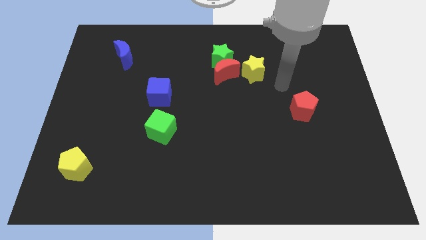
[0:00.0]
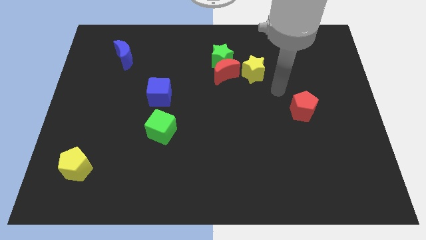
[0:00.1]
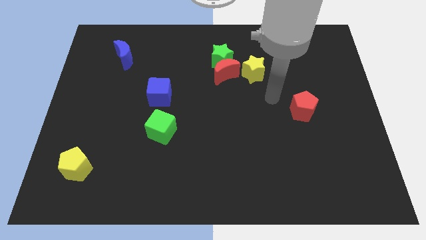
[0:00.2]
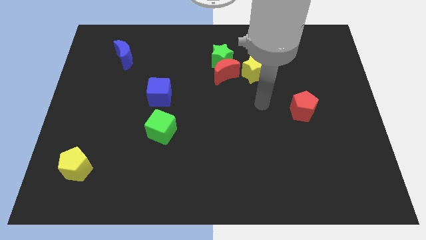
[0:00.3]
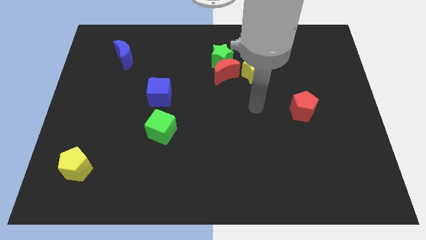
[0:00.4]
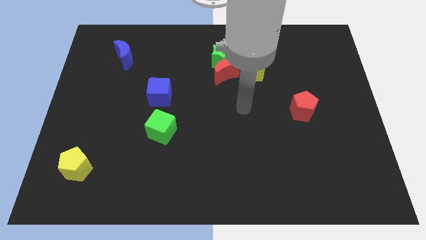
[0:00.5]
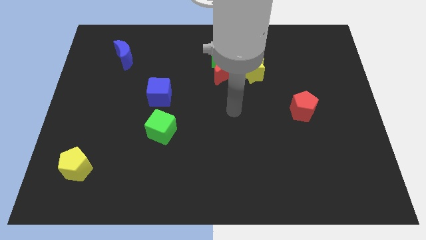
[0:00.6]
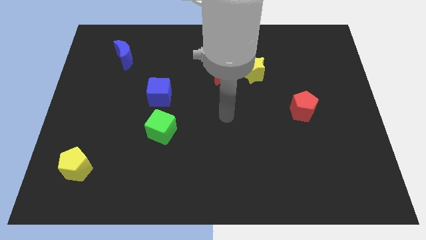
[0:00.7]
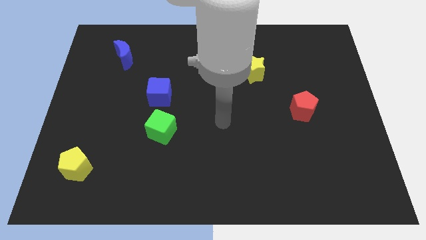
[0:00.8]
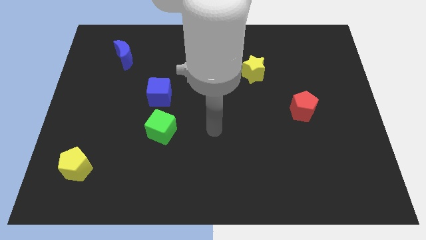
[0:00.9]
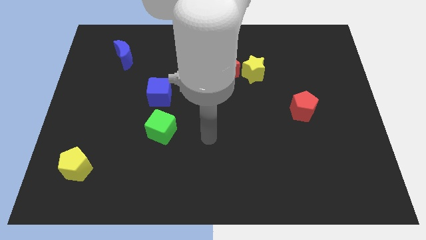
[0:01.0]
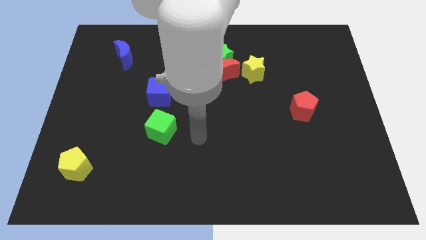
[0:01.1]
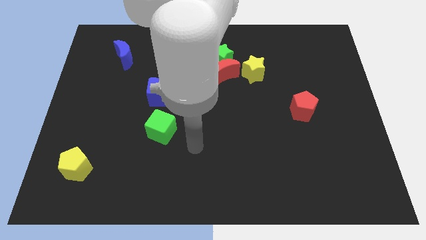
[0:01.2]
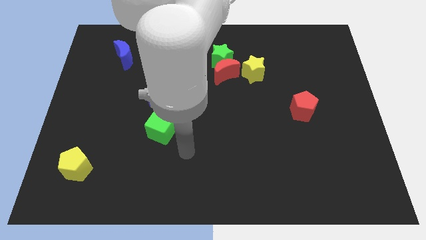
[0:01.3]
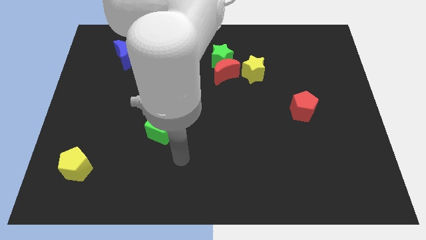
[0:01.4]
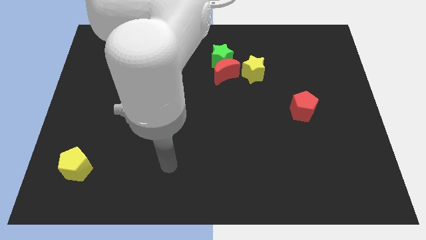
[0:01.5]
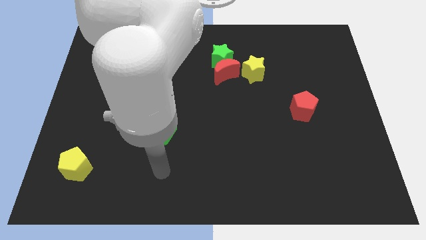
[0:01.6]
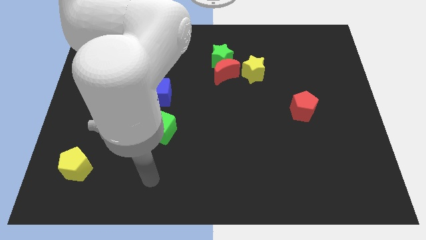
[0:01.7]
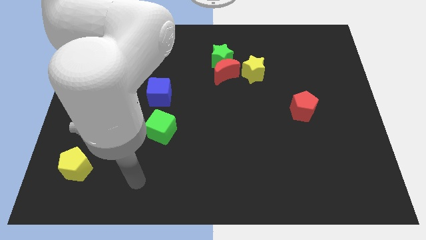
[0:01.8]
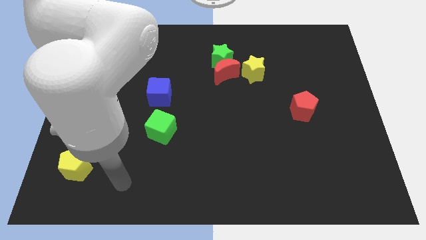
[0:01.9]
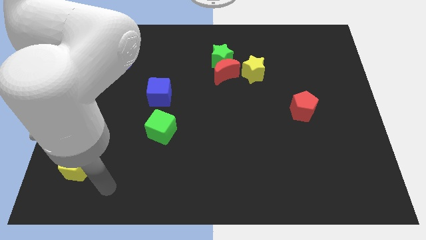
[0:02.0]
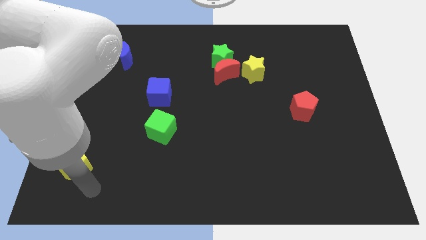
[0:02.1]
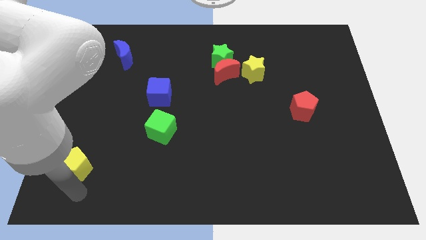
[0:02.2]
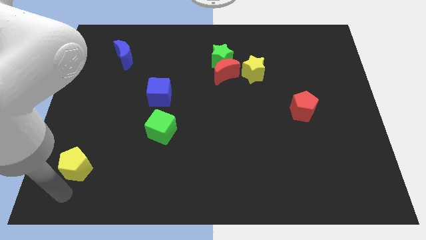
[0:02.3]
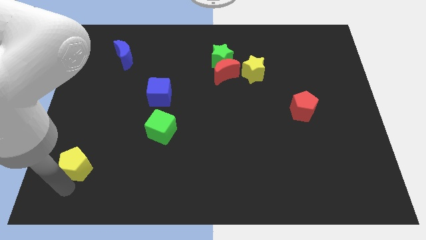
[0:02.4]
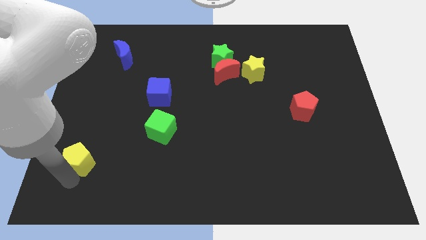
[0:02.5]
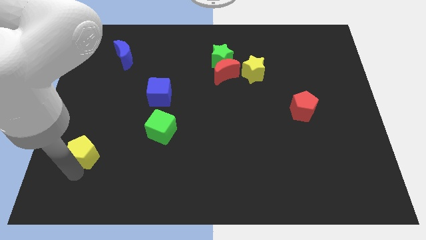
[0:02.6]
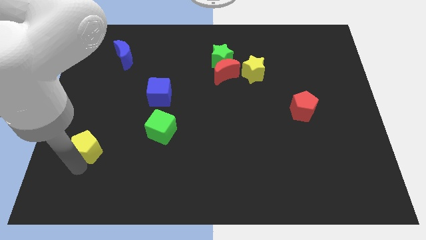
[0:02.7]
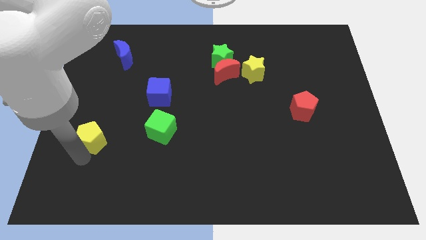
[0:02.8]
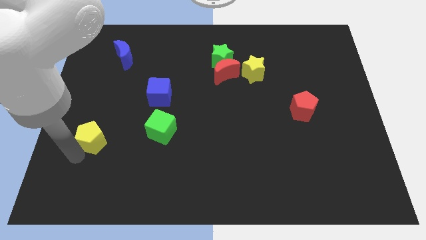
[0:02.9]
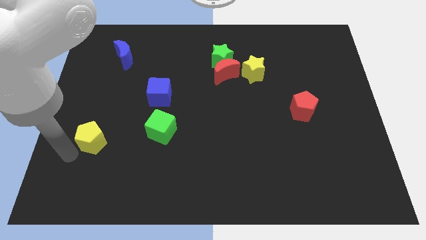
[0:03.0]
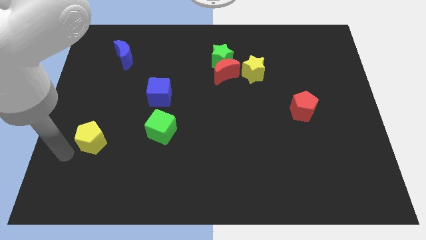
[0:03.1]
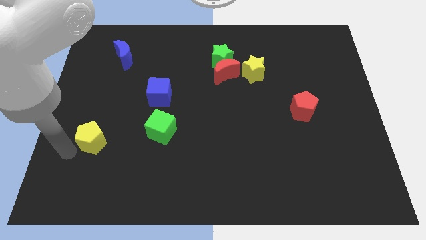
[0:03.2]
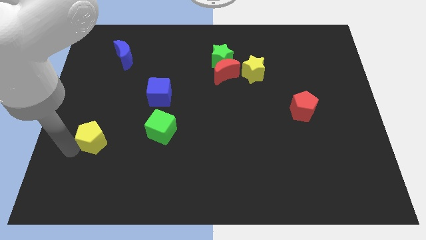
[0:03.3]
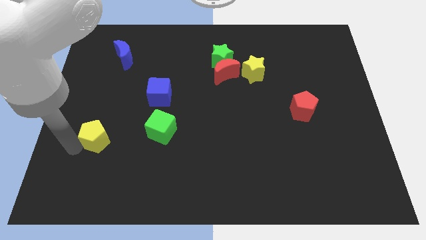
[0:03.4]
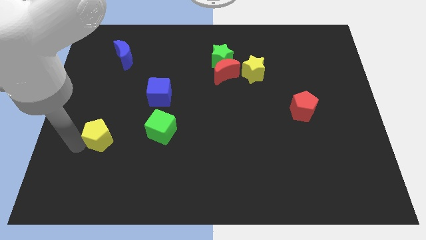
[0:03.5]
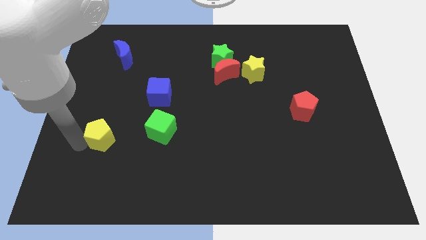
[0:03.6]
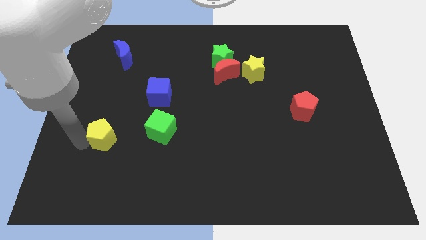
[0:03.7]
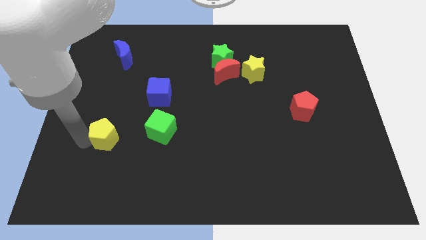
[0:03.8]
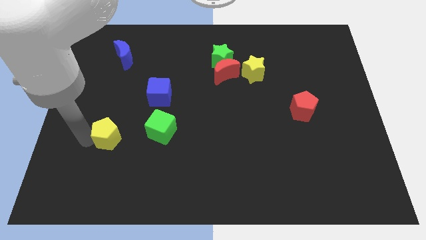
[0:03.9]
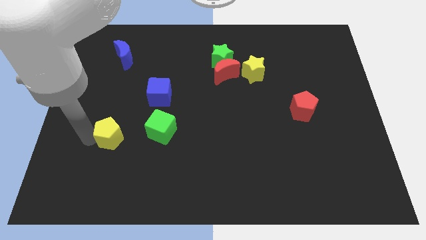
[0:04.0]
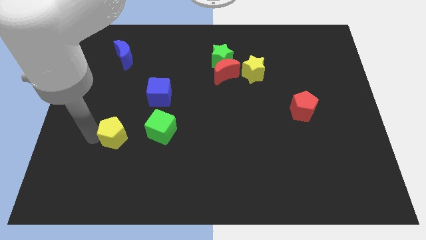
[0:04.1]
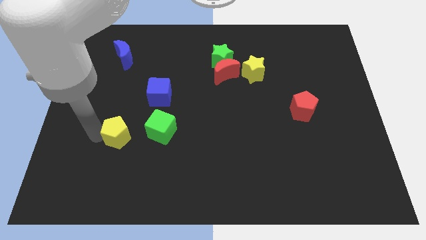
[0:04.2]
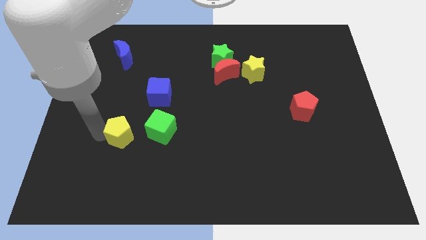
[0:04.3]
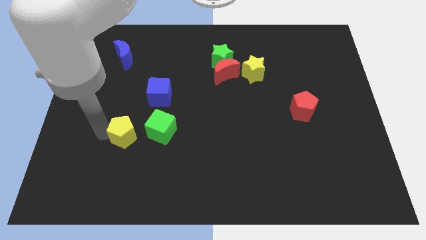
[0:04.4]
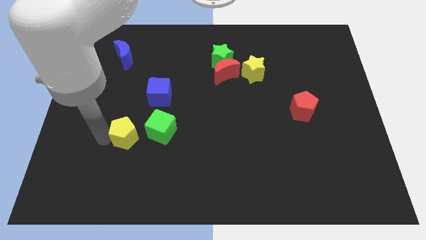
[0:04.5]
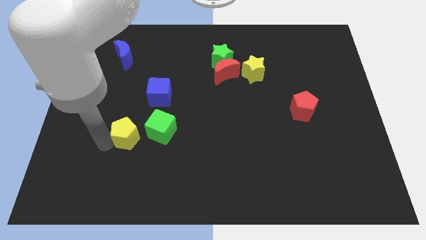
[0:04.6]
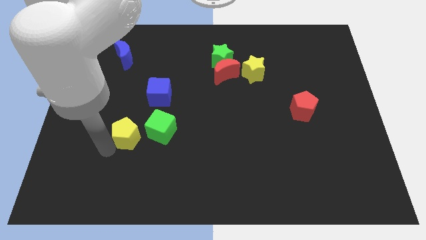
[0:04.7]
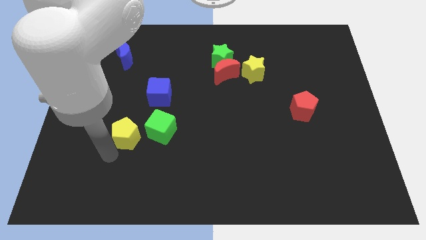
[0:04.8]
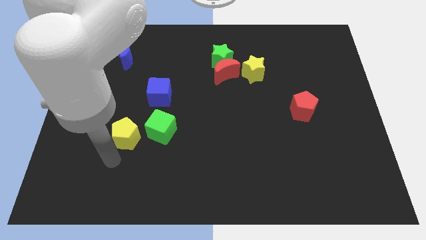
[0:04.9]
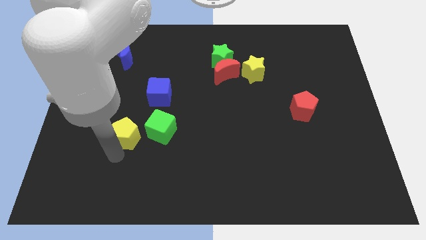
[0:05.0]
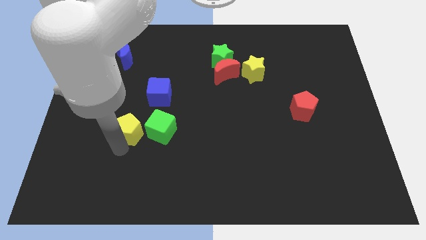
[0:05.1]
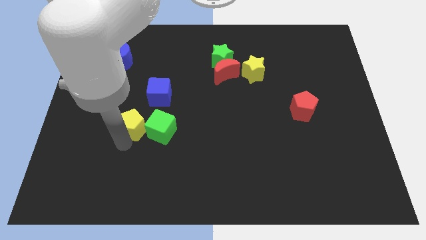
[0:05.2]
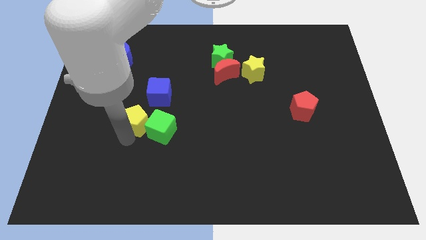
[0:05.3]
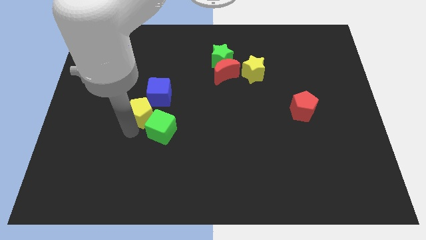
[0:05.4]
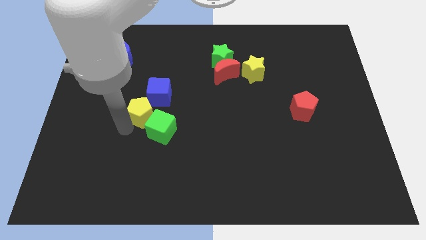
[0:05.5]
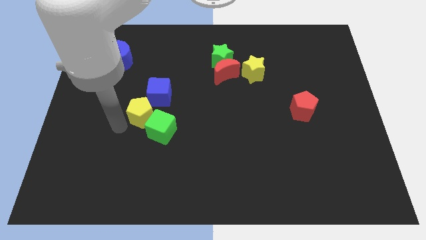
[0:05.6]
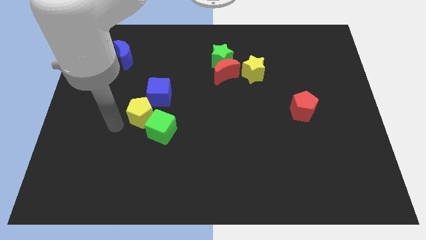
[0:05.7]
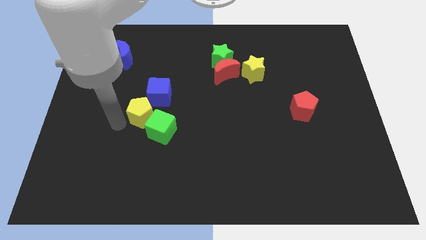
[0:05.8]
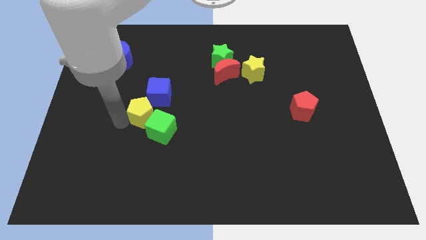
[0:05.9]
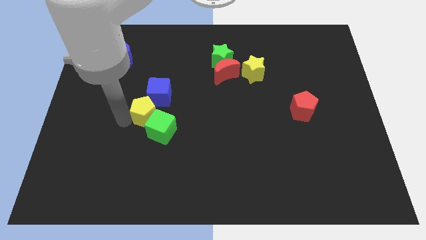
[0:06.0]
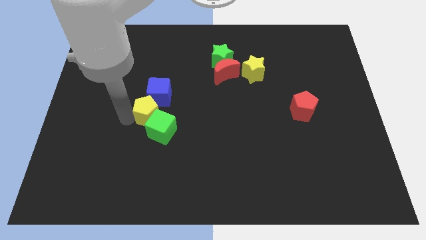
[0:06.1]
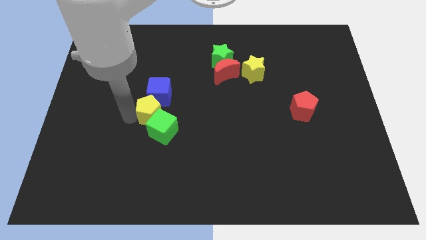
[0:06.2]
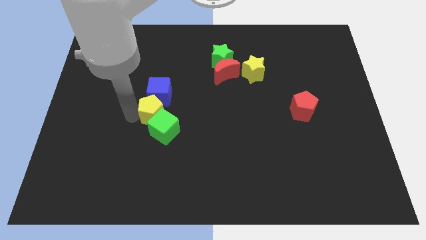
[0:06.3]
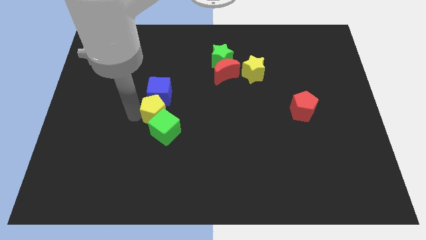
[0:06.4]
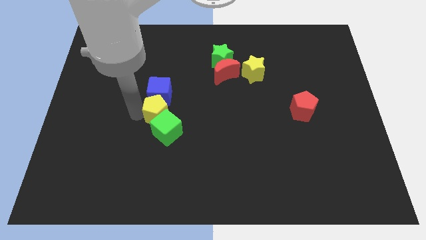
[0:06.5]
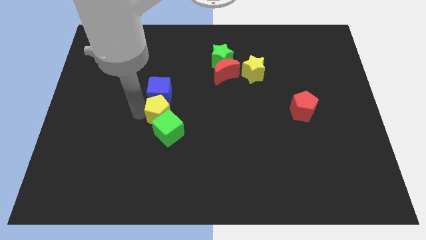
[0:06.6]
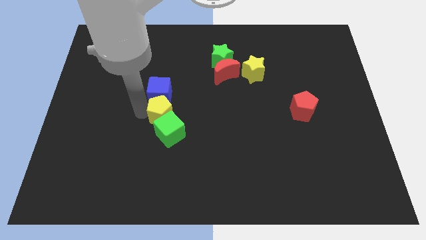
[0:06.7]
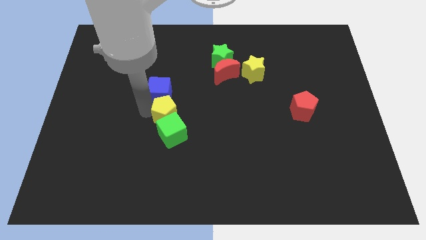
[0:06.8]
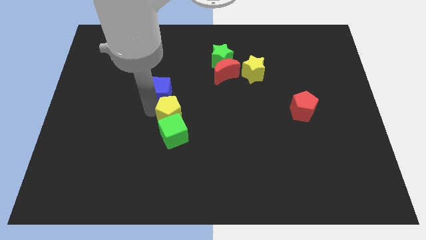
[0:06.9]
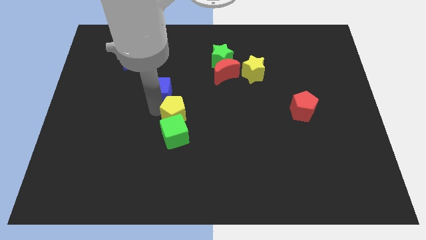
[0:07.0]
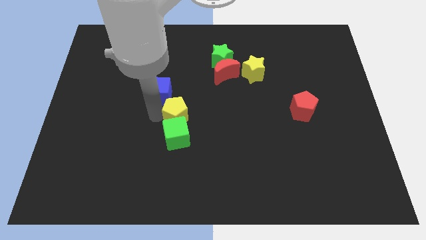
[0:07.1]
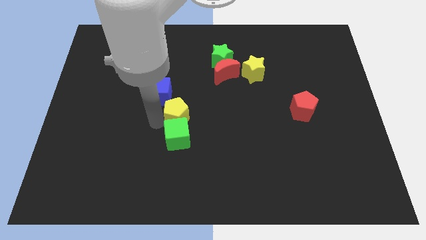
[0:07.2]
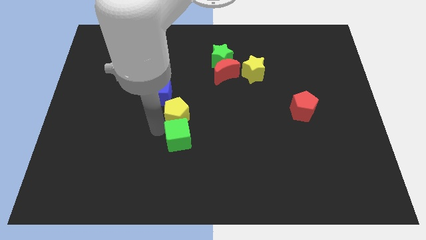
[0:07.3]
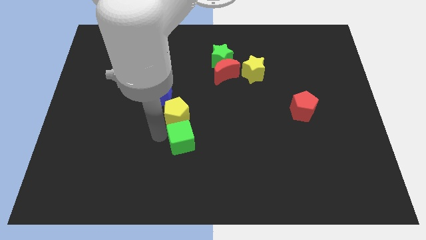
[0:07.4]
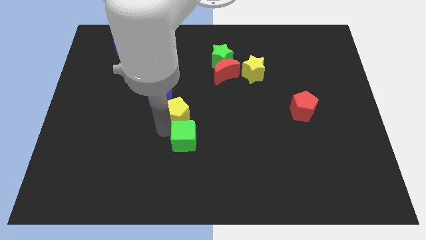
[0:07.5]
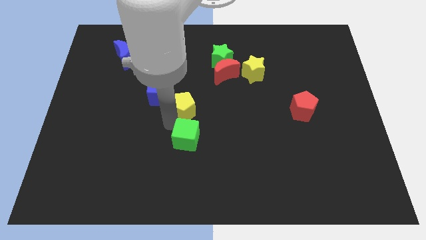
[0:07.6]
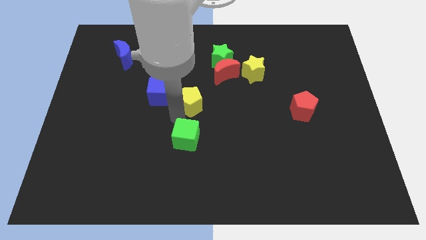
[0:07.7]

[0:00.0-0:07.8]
push the yellow pentagon to the bottom left side of the red moon
